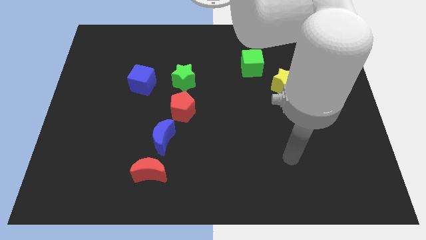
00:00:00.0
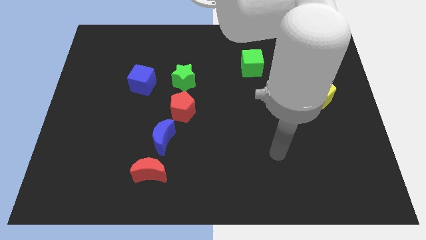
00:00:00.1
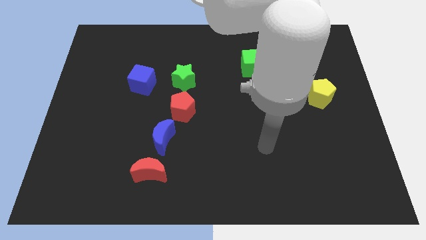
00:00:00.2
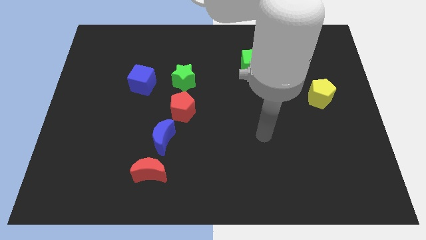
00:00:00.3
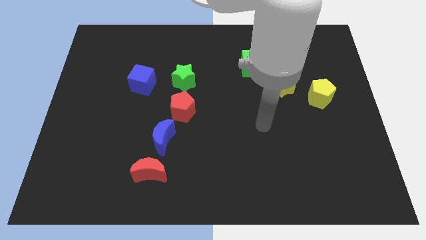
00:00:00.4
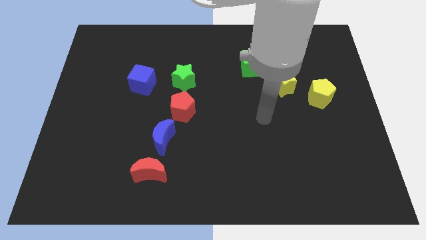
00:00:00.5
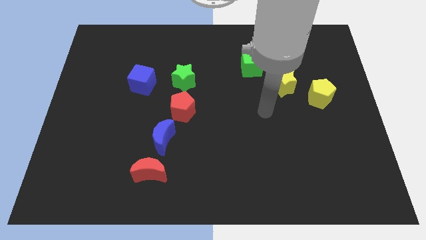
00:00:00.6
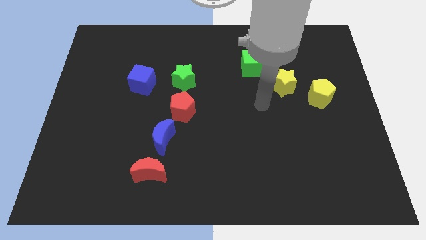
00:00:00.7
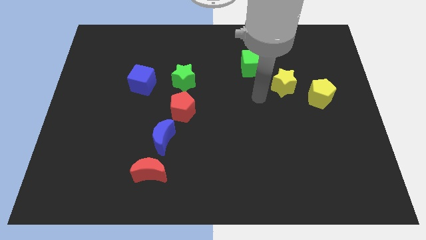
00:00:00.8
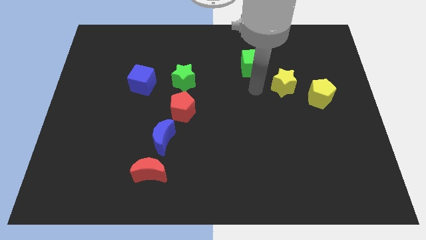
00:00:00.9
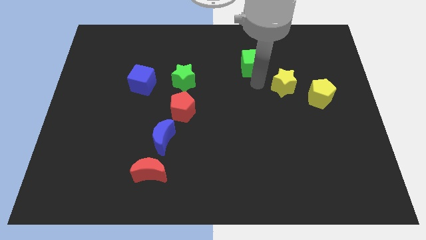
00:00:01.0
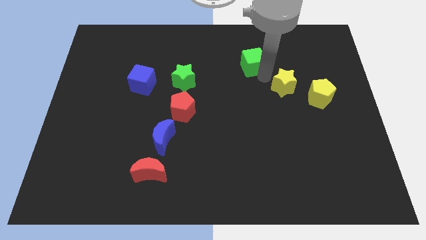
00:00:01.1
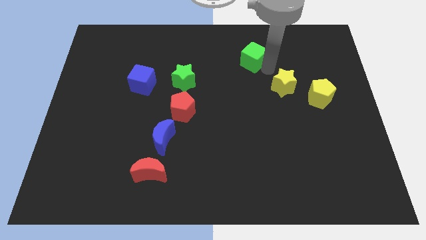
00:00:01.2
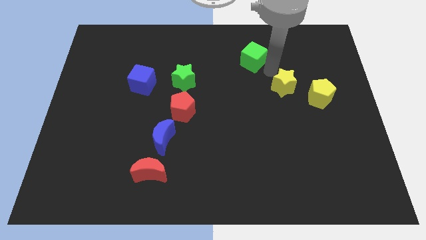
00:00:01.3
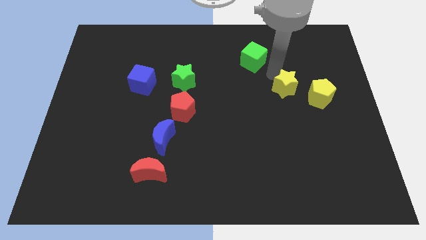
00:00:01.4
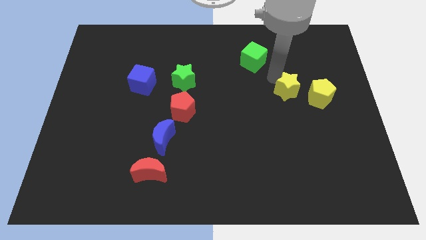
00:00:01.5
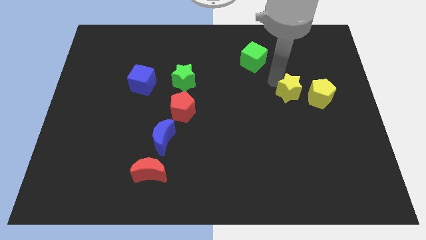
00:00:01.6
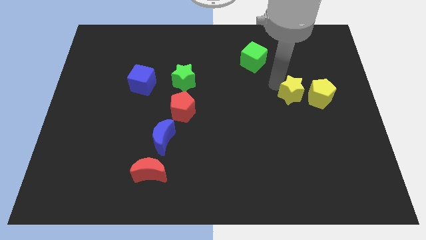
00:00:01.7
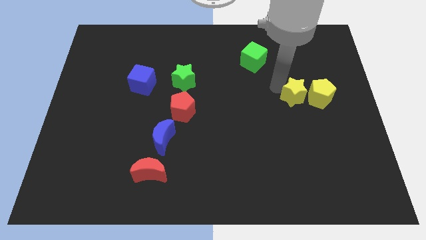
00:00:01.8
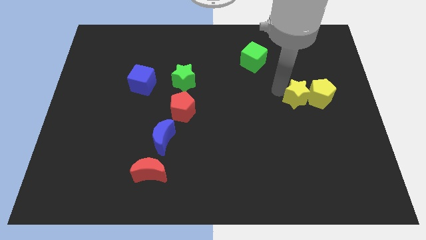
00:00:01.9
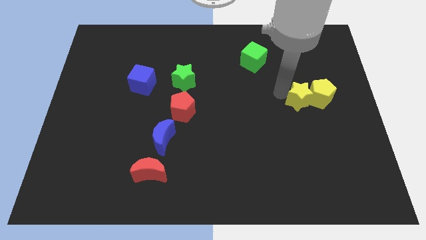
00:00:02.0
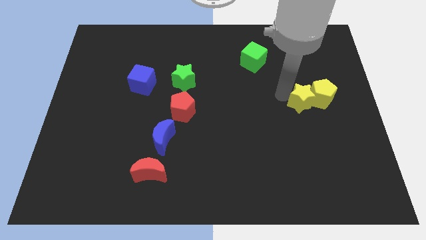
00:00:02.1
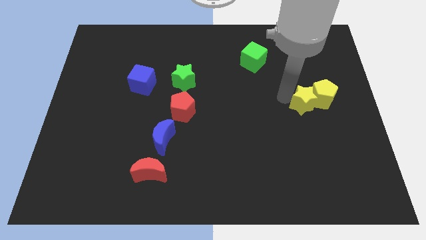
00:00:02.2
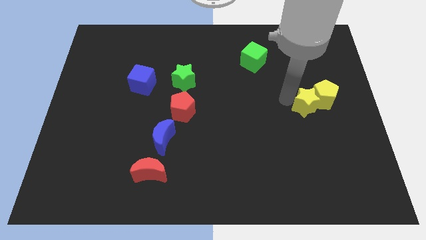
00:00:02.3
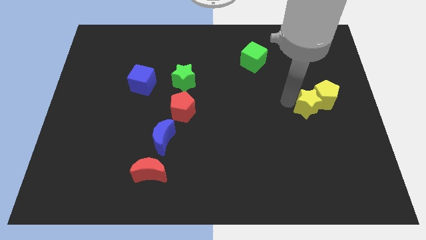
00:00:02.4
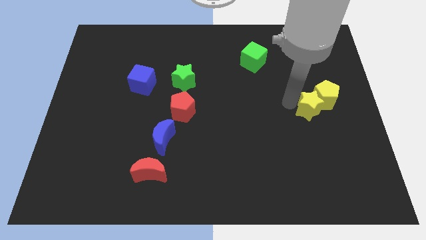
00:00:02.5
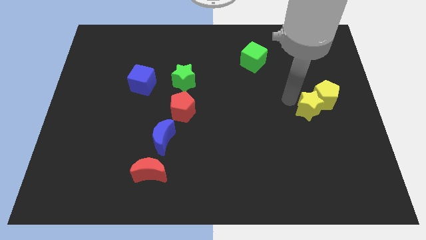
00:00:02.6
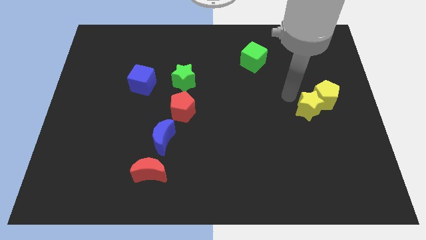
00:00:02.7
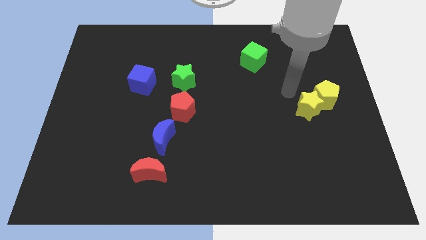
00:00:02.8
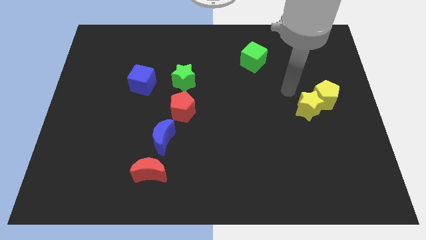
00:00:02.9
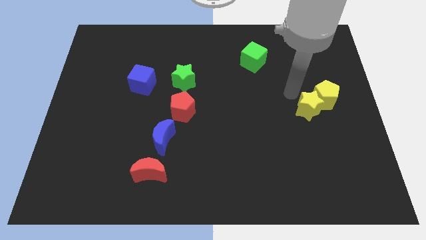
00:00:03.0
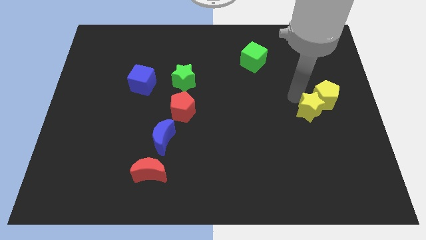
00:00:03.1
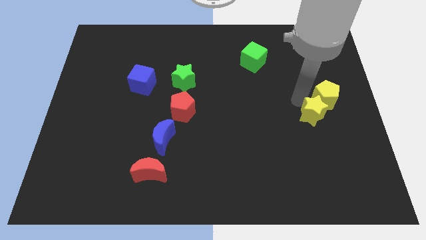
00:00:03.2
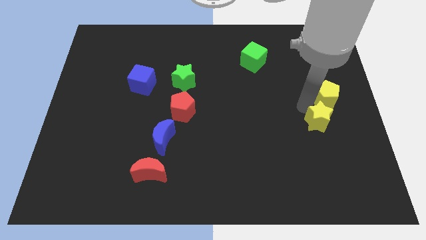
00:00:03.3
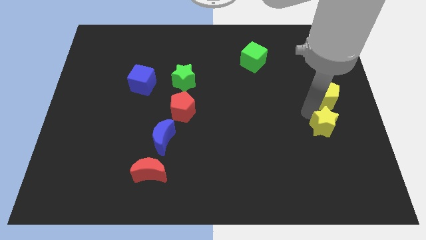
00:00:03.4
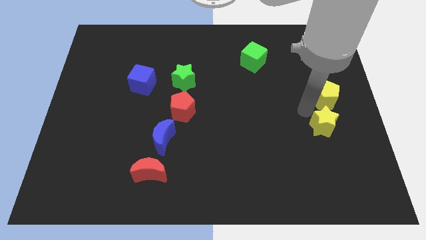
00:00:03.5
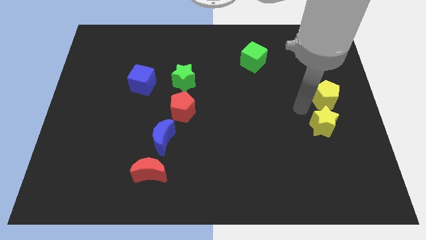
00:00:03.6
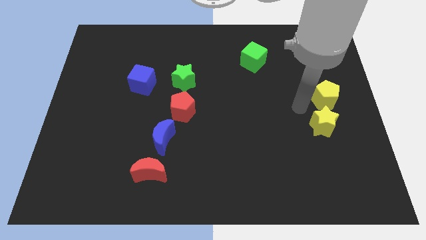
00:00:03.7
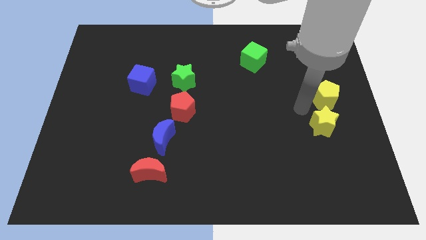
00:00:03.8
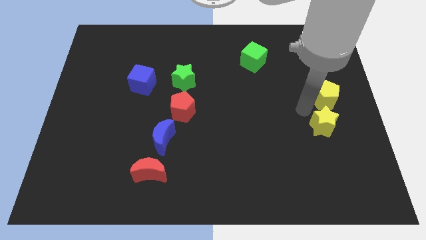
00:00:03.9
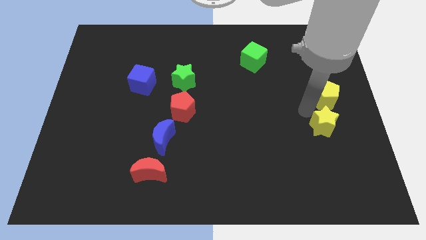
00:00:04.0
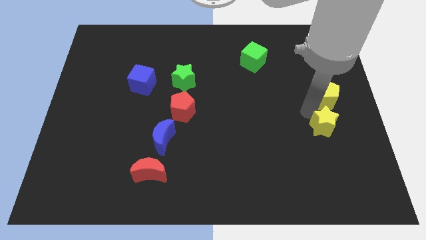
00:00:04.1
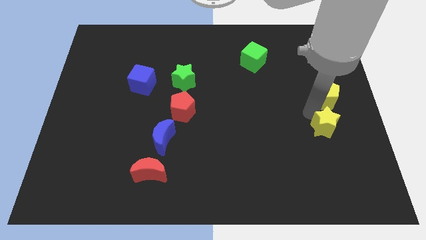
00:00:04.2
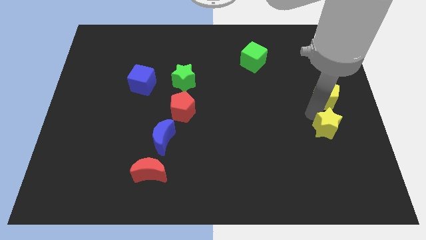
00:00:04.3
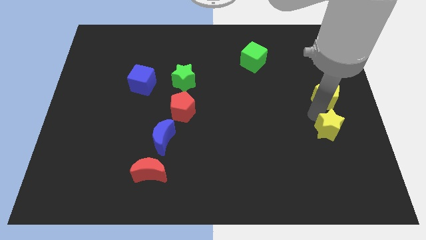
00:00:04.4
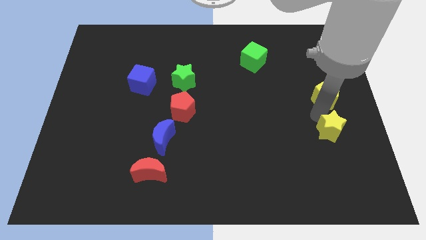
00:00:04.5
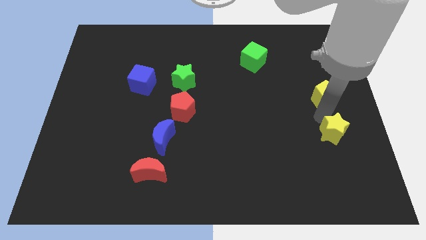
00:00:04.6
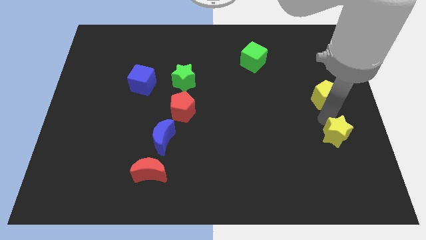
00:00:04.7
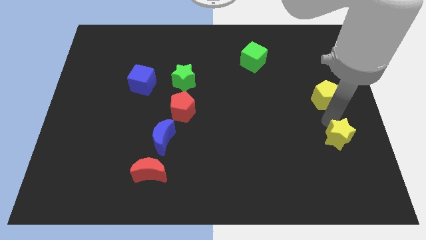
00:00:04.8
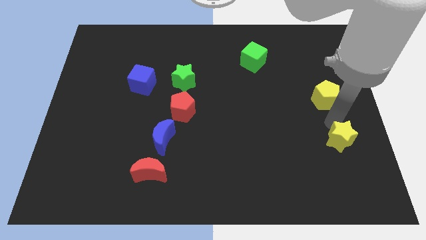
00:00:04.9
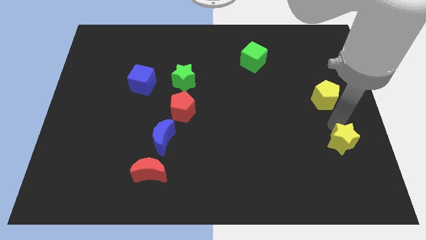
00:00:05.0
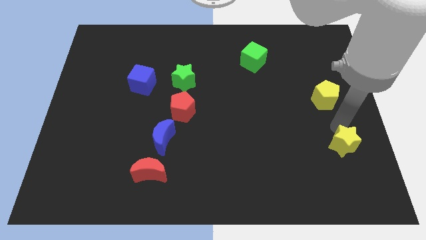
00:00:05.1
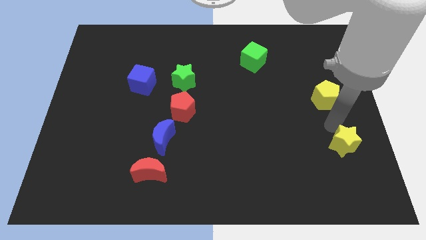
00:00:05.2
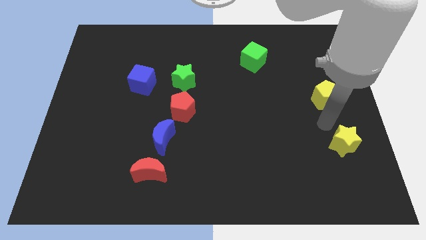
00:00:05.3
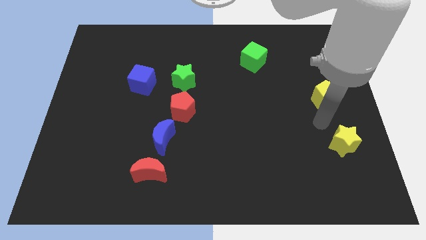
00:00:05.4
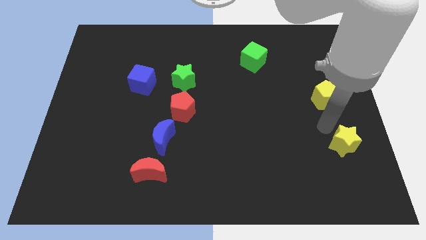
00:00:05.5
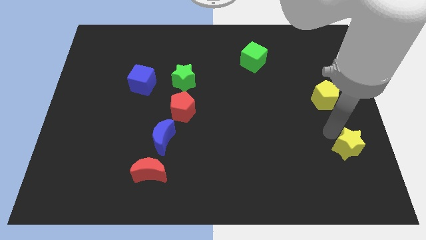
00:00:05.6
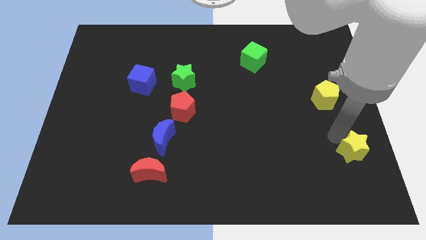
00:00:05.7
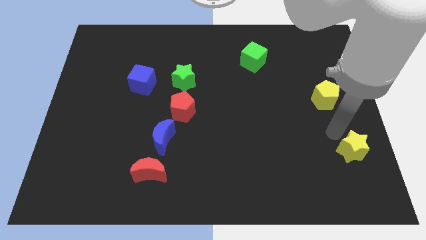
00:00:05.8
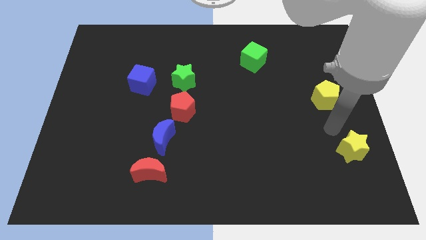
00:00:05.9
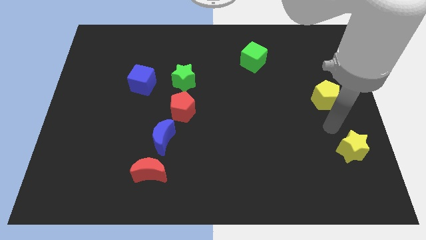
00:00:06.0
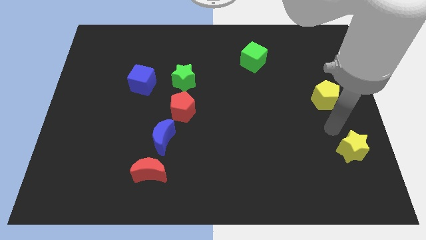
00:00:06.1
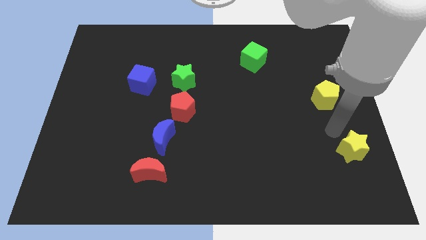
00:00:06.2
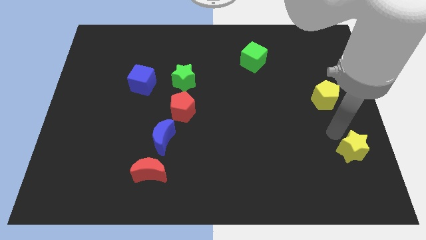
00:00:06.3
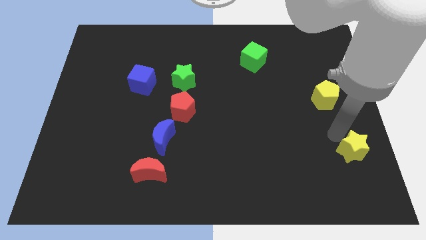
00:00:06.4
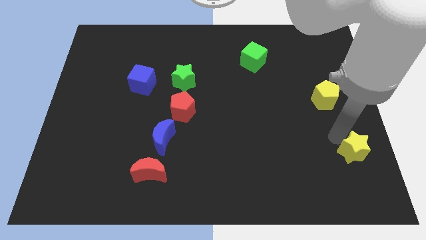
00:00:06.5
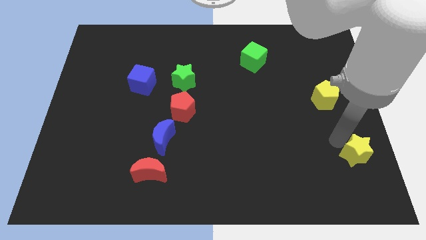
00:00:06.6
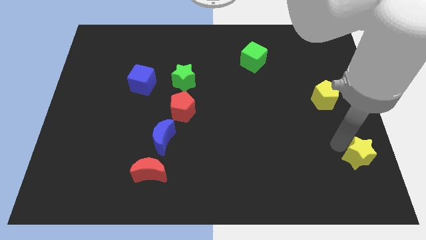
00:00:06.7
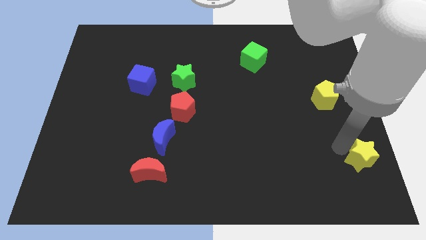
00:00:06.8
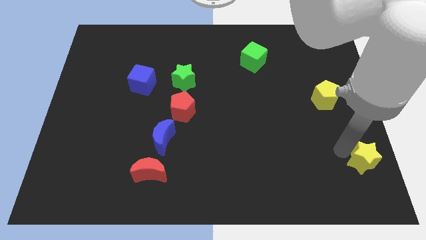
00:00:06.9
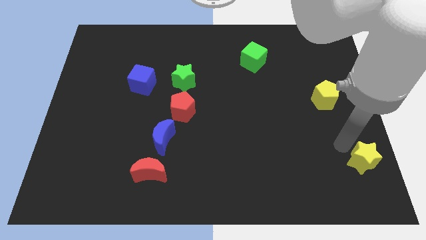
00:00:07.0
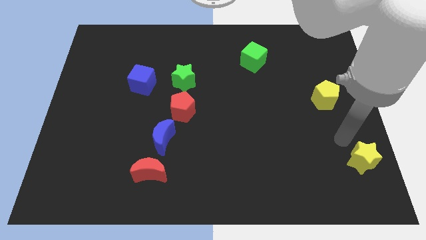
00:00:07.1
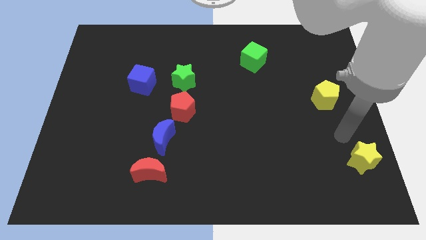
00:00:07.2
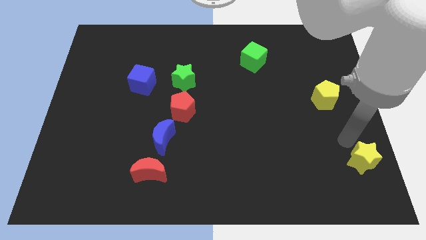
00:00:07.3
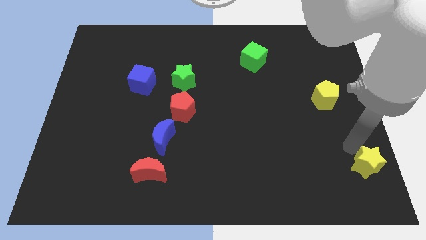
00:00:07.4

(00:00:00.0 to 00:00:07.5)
move the yellow star to the bottom right
